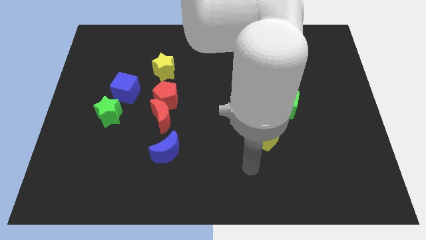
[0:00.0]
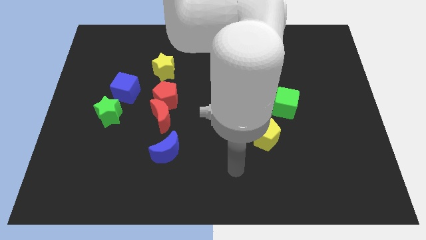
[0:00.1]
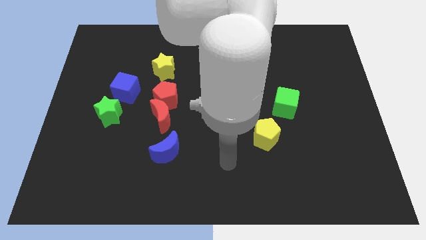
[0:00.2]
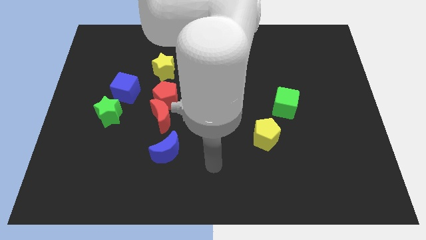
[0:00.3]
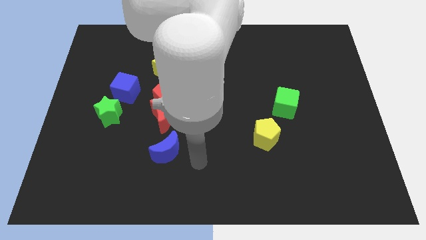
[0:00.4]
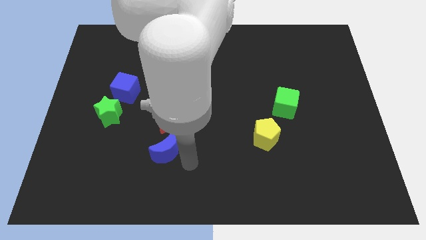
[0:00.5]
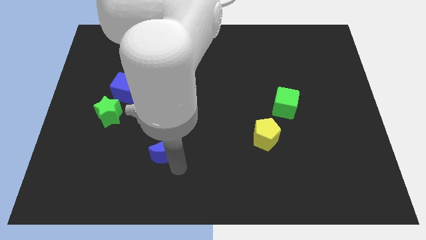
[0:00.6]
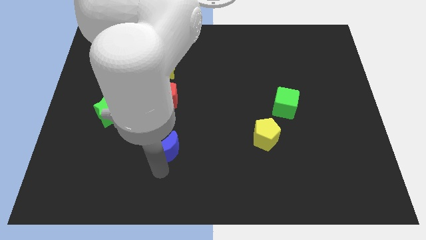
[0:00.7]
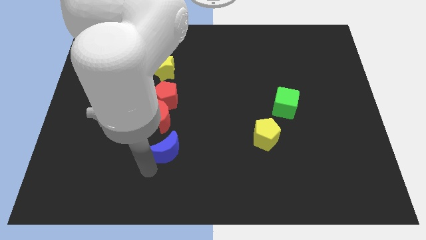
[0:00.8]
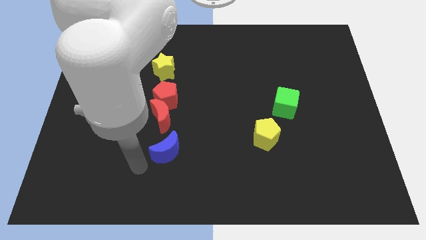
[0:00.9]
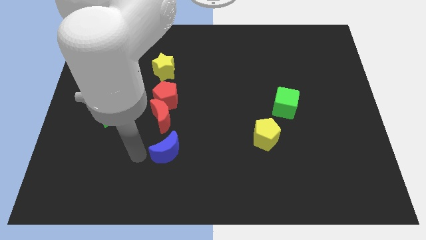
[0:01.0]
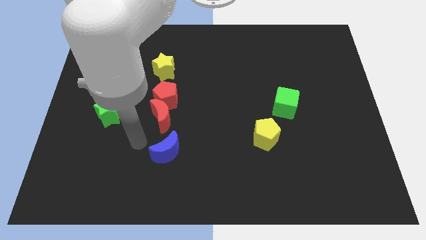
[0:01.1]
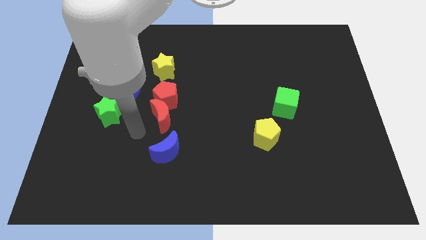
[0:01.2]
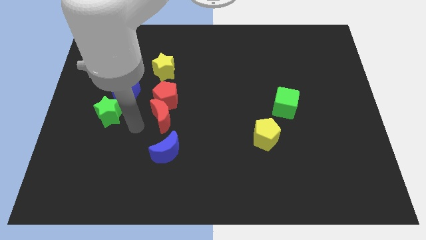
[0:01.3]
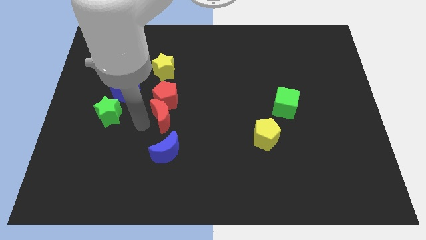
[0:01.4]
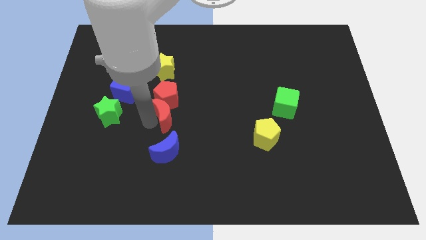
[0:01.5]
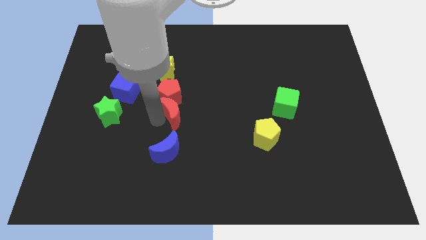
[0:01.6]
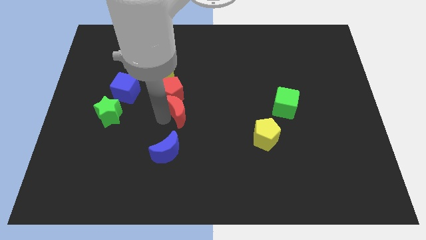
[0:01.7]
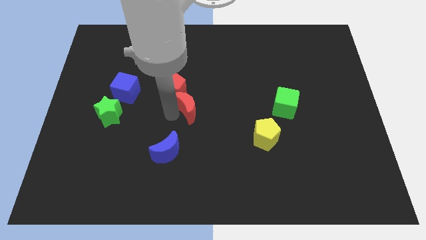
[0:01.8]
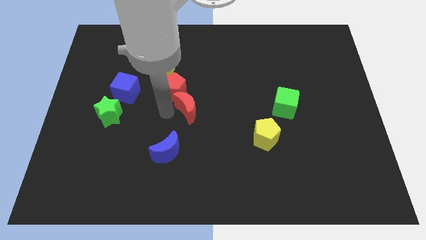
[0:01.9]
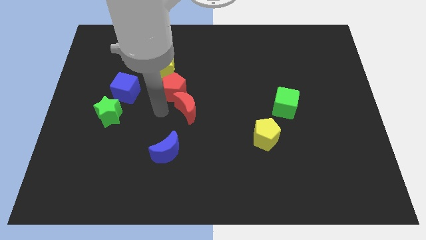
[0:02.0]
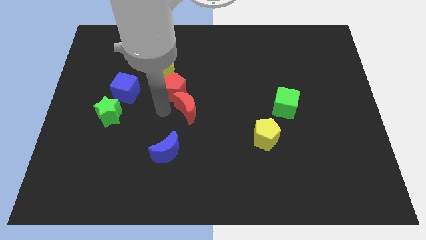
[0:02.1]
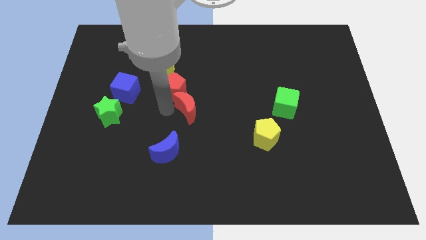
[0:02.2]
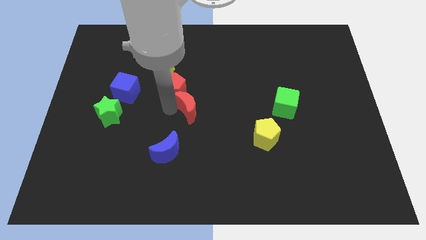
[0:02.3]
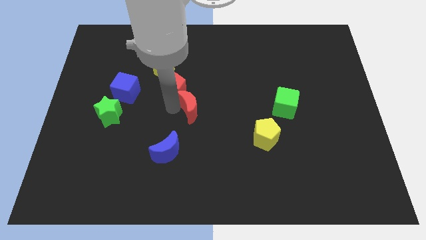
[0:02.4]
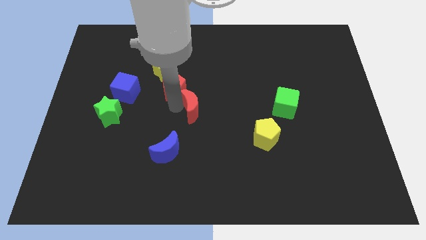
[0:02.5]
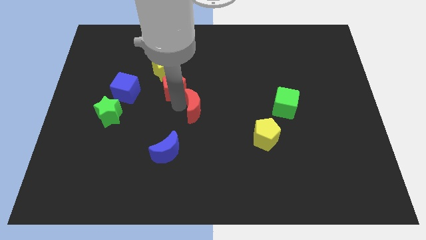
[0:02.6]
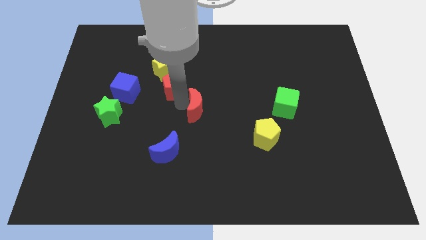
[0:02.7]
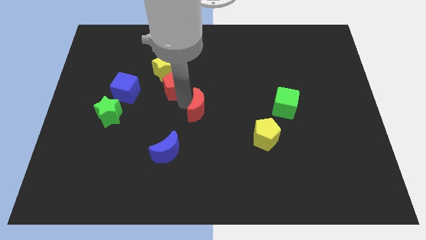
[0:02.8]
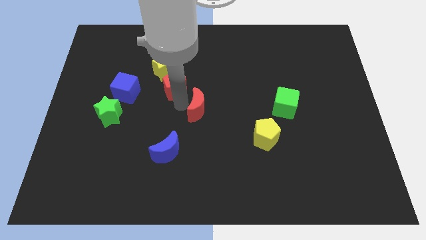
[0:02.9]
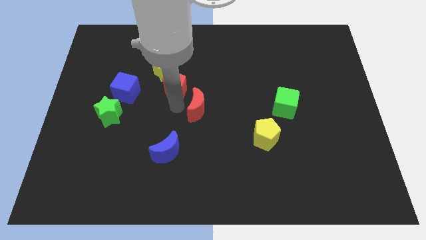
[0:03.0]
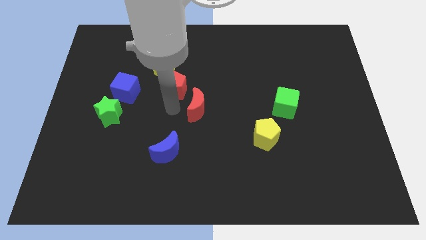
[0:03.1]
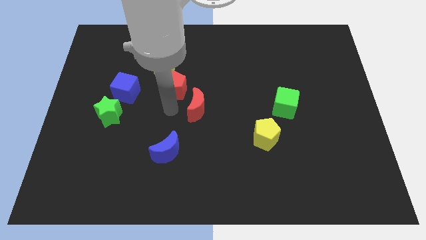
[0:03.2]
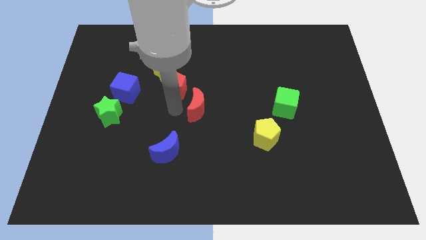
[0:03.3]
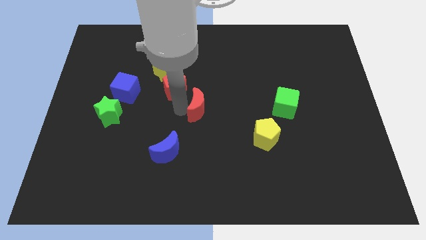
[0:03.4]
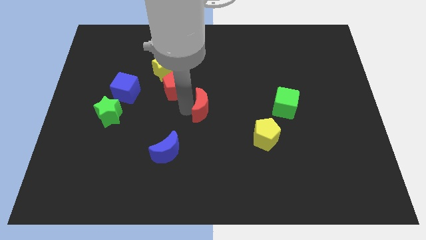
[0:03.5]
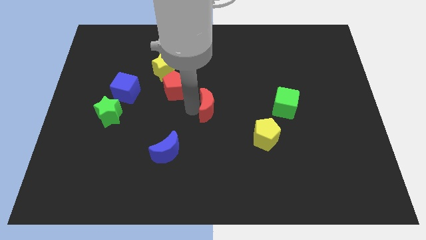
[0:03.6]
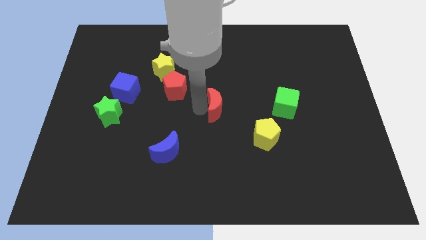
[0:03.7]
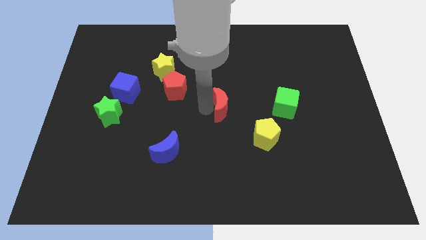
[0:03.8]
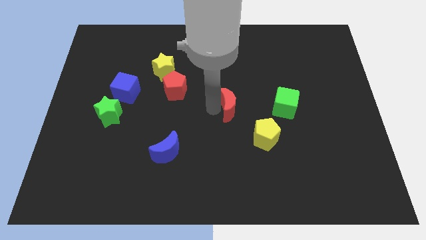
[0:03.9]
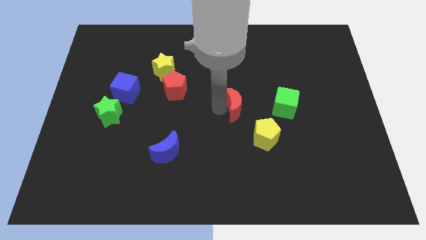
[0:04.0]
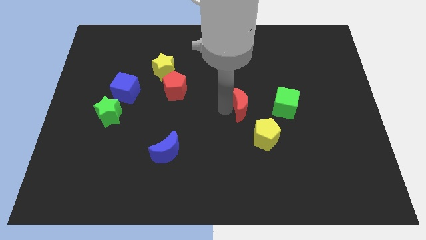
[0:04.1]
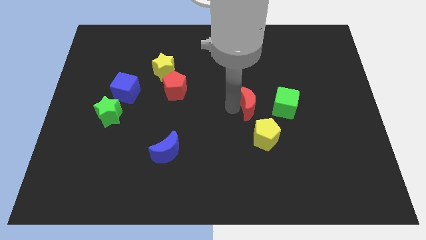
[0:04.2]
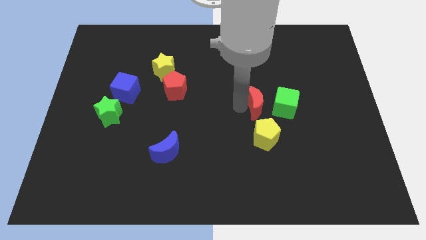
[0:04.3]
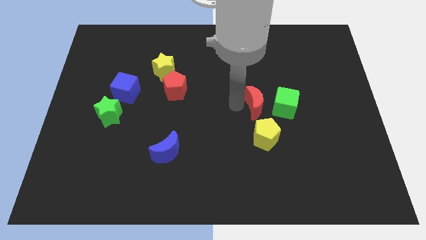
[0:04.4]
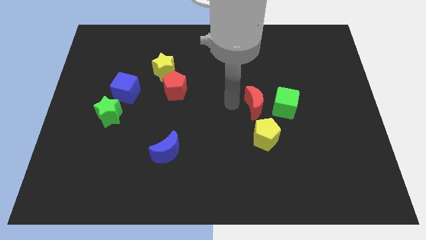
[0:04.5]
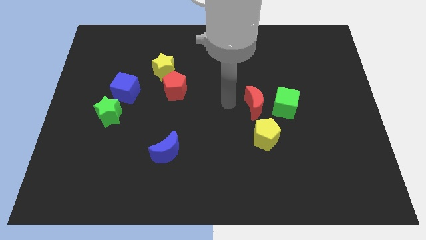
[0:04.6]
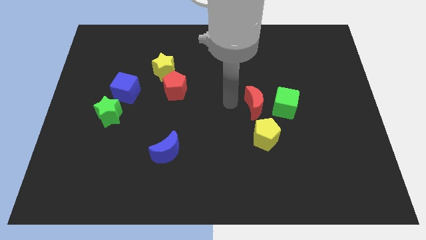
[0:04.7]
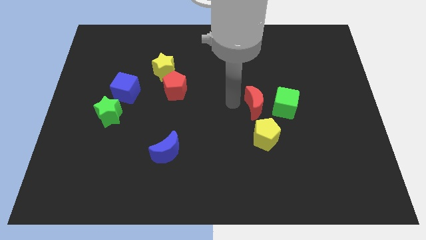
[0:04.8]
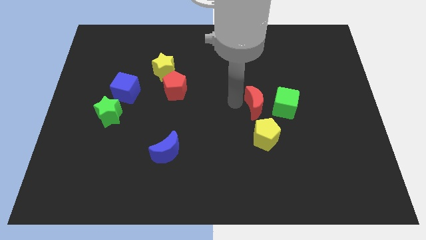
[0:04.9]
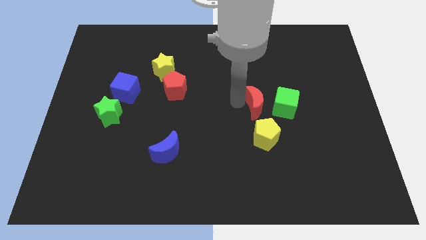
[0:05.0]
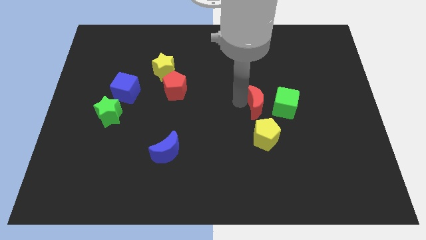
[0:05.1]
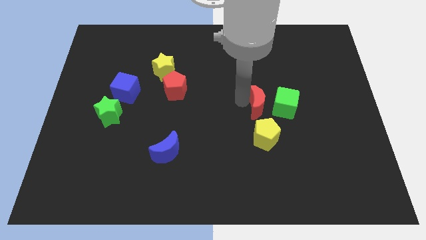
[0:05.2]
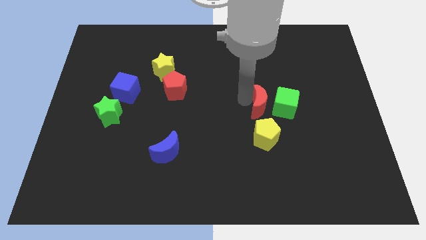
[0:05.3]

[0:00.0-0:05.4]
put the red moon next to the green cube

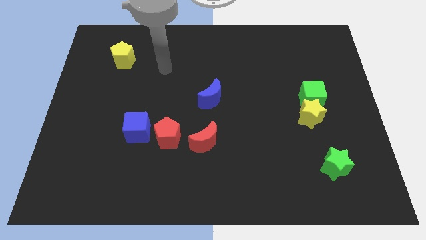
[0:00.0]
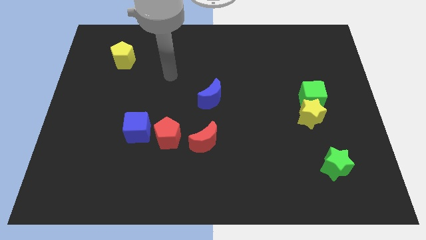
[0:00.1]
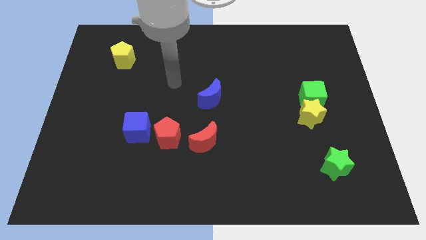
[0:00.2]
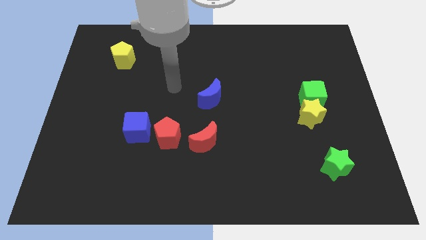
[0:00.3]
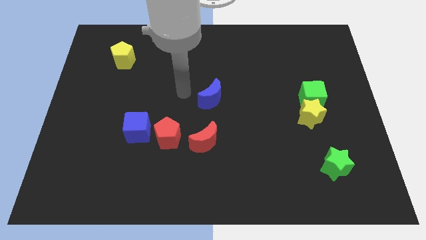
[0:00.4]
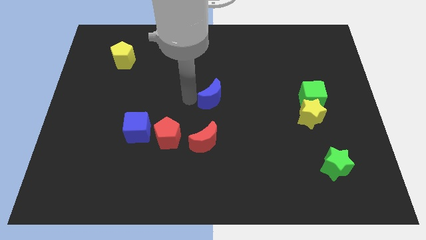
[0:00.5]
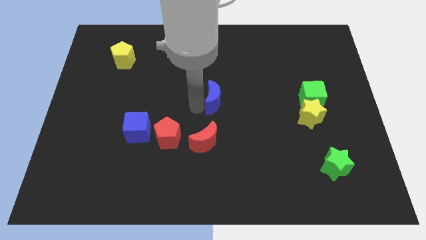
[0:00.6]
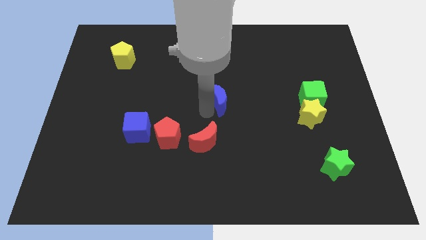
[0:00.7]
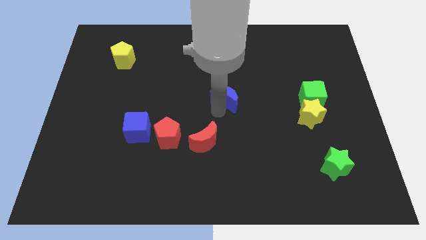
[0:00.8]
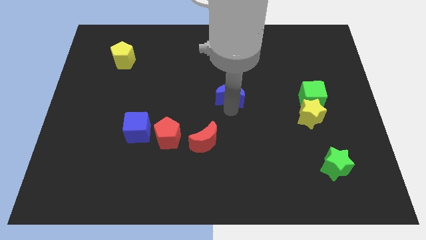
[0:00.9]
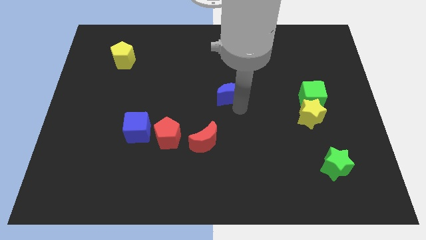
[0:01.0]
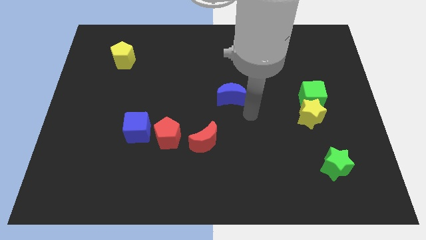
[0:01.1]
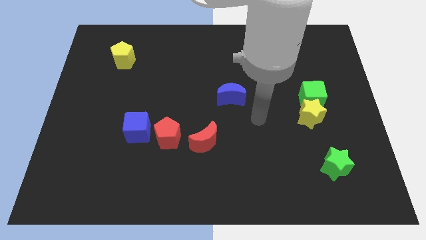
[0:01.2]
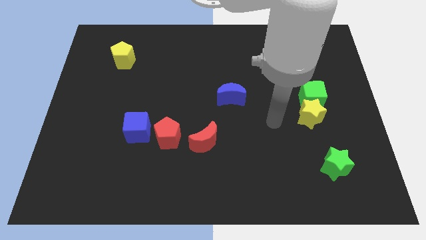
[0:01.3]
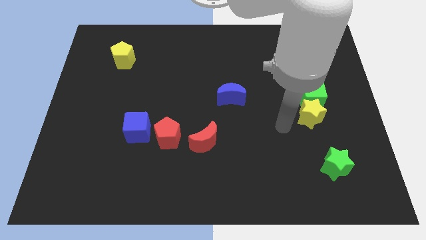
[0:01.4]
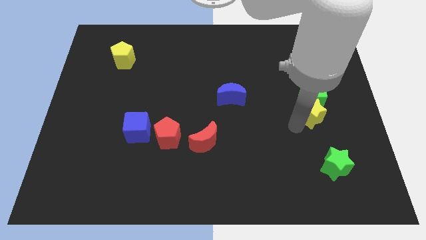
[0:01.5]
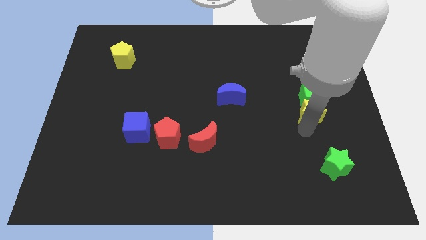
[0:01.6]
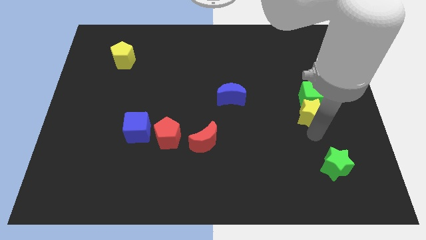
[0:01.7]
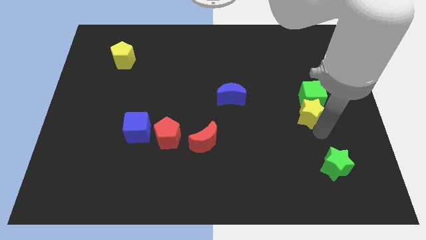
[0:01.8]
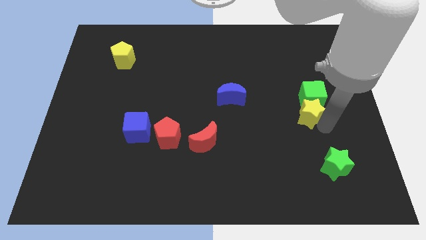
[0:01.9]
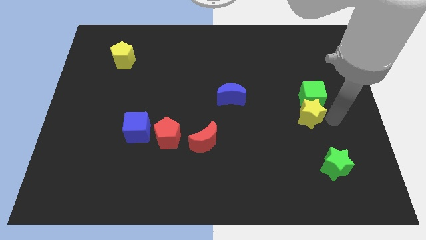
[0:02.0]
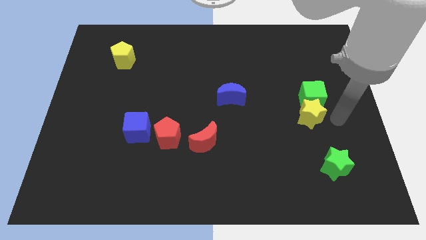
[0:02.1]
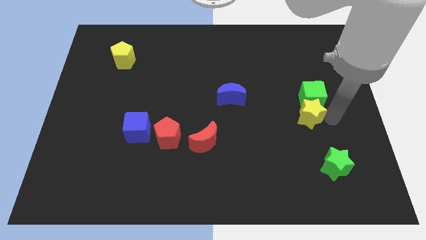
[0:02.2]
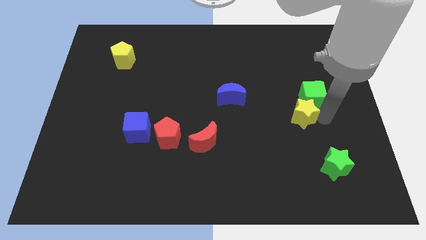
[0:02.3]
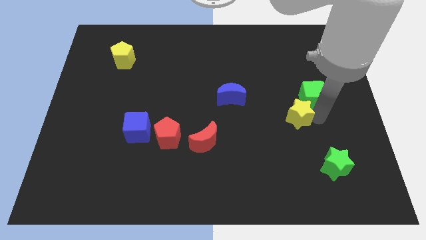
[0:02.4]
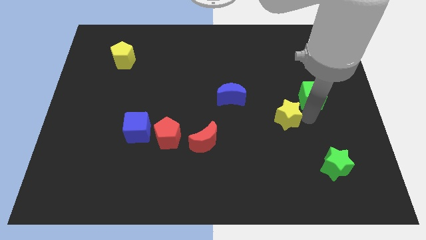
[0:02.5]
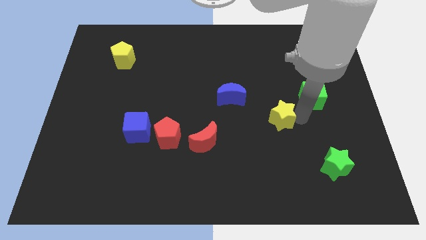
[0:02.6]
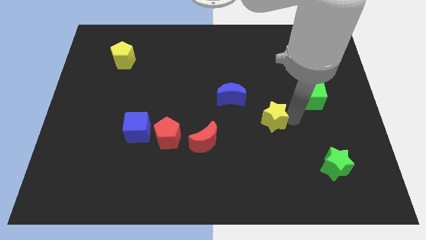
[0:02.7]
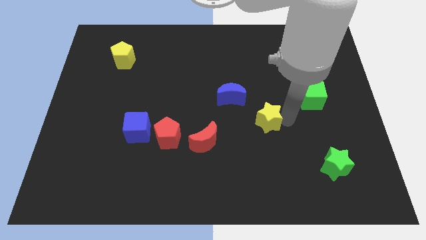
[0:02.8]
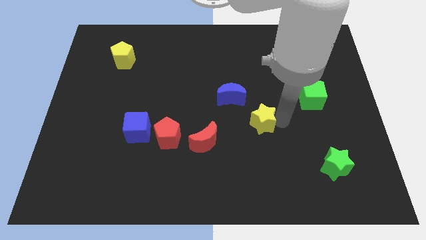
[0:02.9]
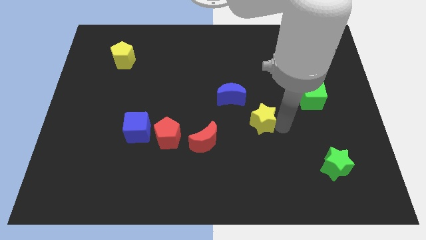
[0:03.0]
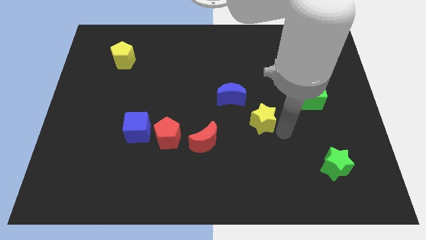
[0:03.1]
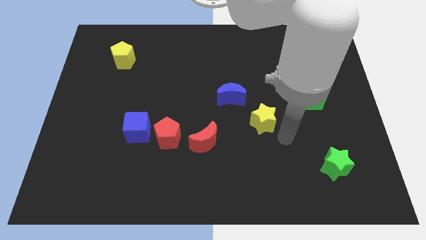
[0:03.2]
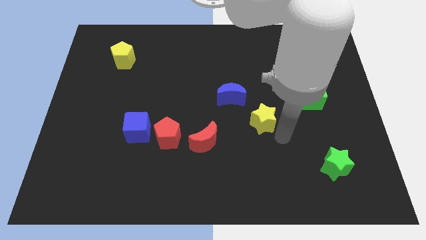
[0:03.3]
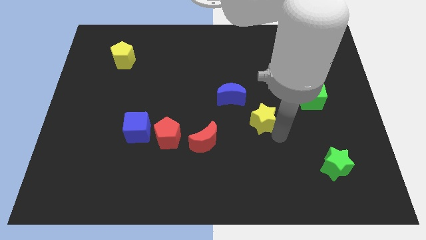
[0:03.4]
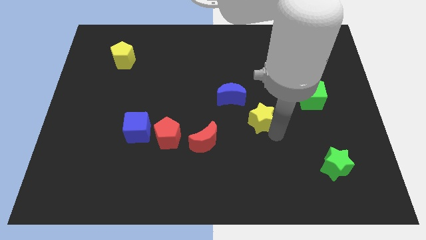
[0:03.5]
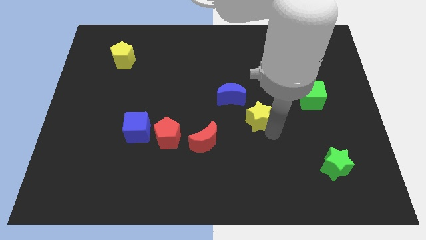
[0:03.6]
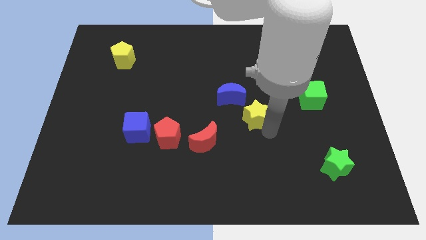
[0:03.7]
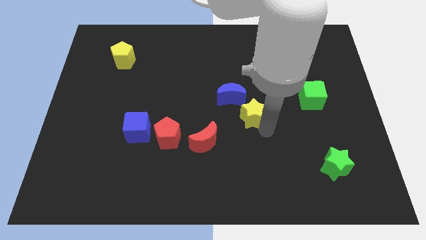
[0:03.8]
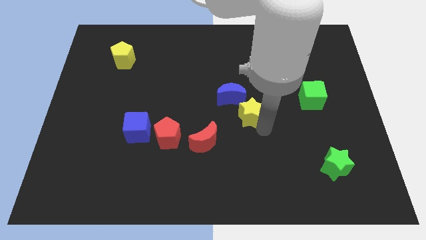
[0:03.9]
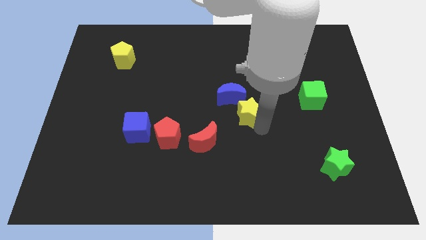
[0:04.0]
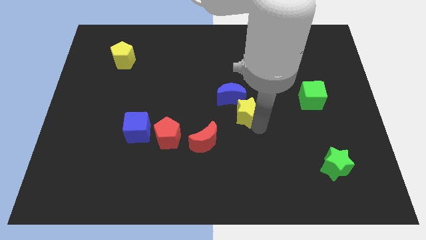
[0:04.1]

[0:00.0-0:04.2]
move the yellow star close to the blue moon
